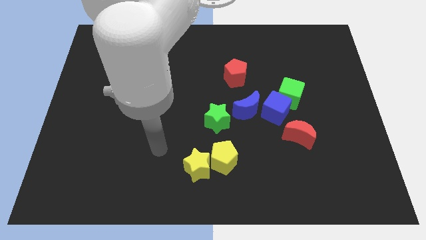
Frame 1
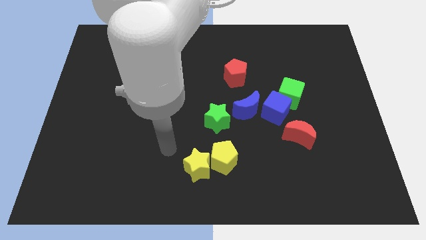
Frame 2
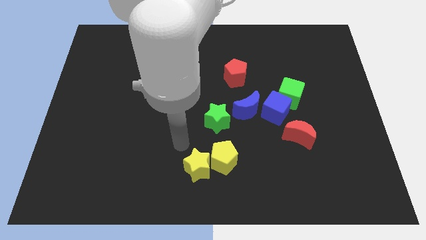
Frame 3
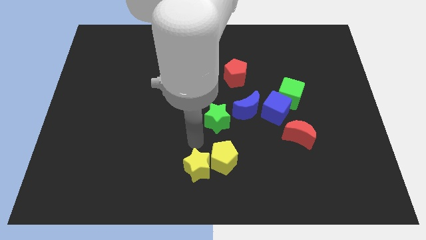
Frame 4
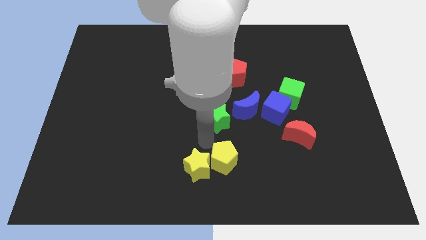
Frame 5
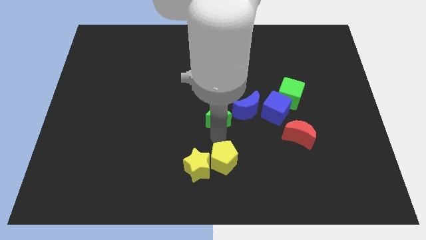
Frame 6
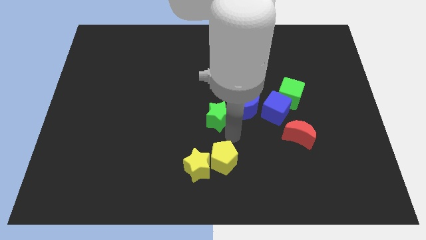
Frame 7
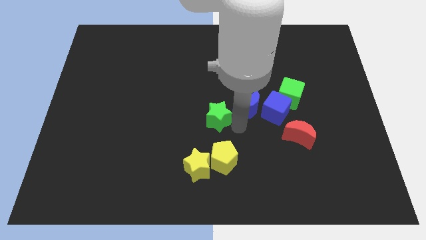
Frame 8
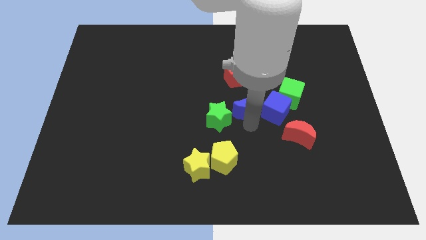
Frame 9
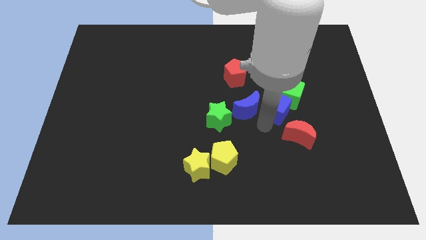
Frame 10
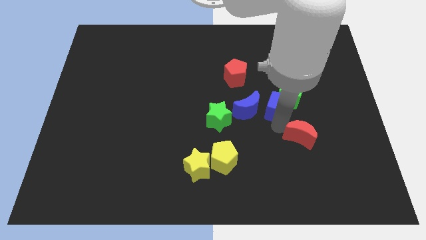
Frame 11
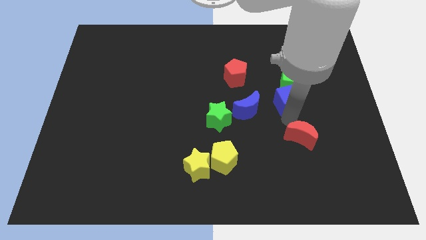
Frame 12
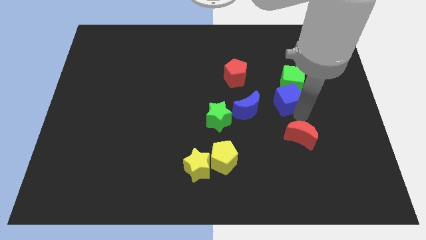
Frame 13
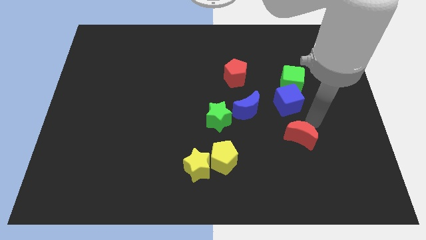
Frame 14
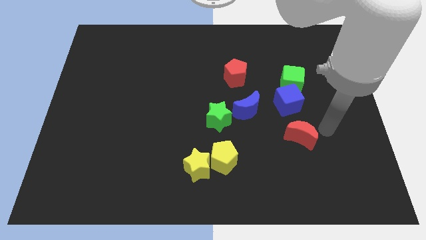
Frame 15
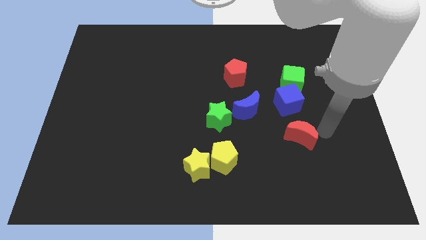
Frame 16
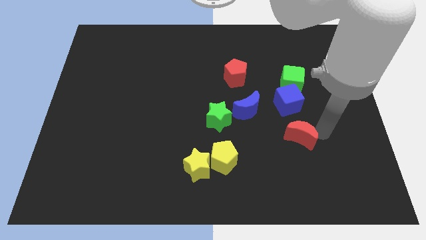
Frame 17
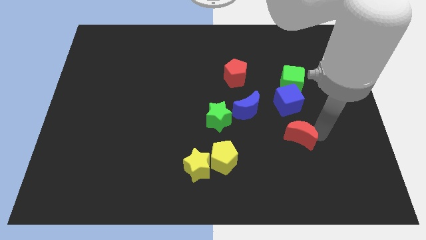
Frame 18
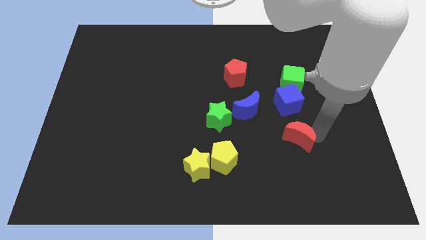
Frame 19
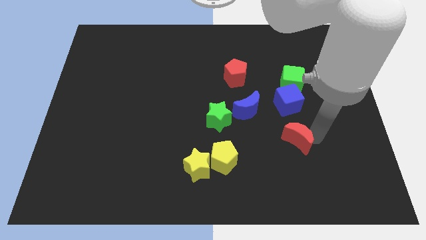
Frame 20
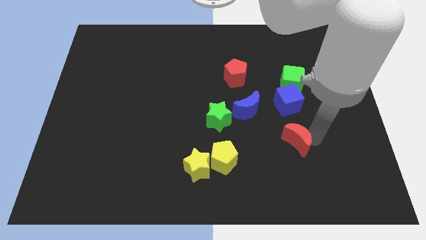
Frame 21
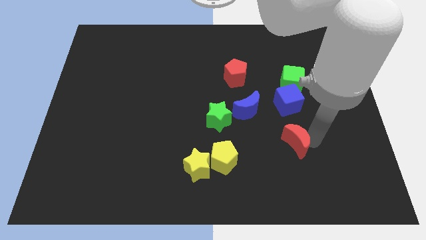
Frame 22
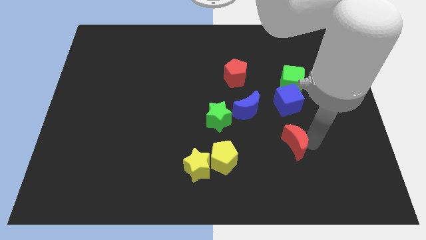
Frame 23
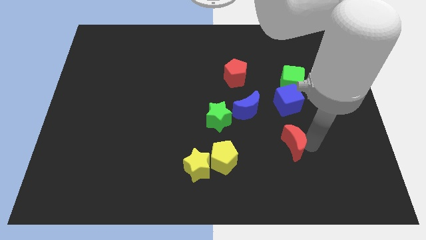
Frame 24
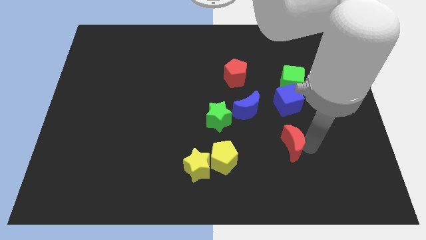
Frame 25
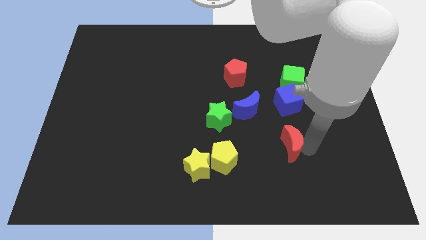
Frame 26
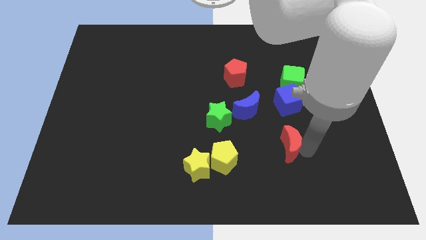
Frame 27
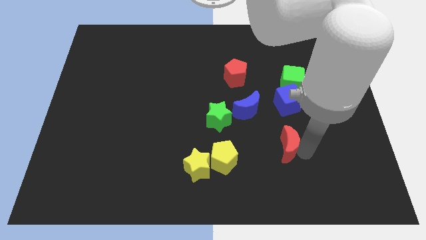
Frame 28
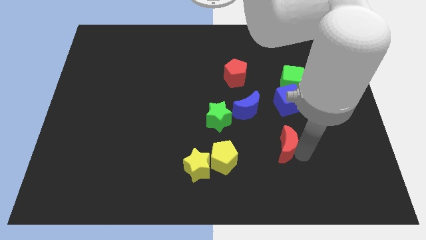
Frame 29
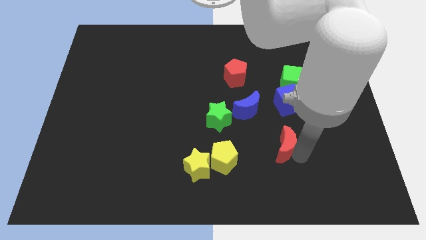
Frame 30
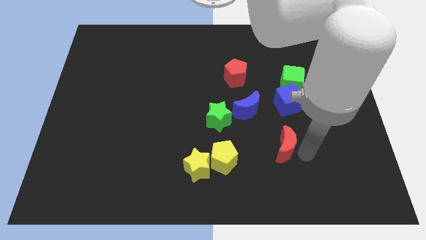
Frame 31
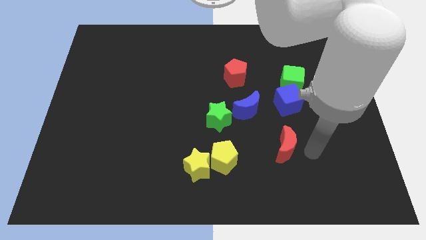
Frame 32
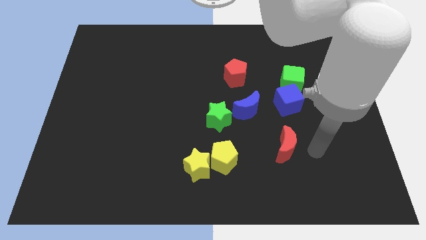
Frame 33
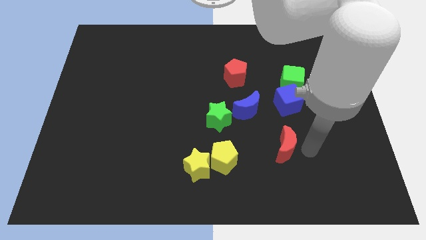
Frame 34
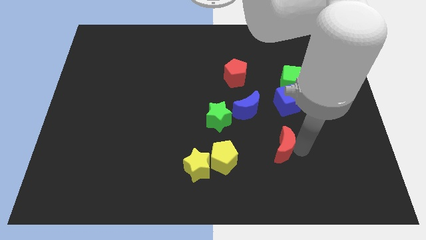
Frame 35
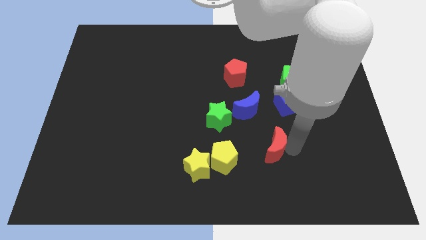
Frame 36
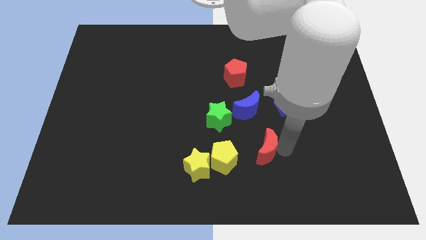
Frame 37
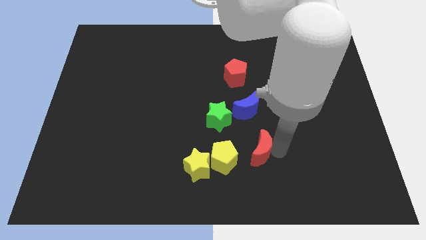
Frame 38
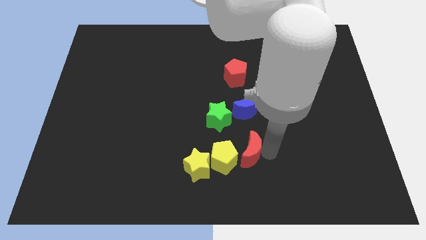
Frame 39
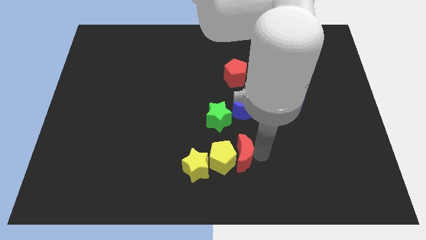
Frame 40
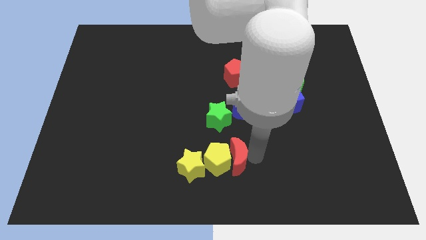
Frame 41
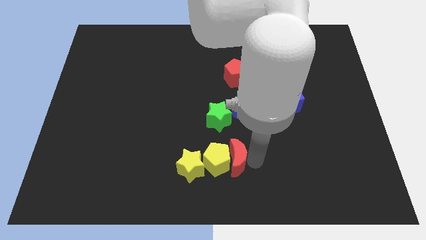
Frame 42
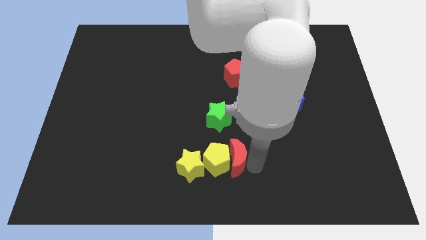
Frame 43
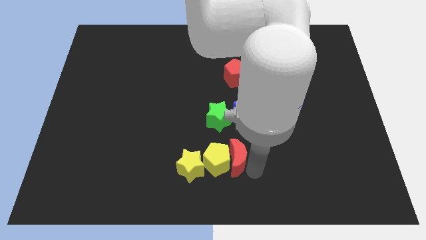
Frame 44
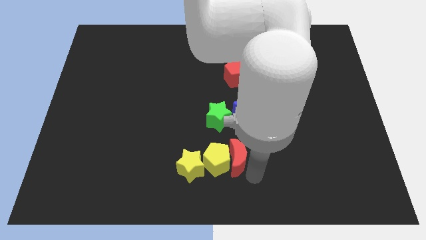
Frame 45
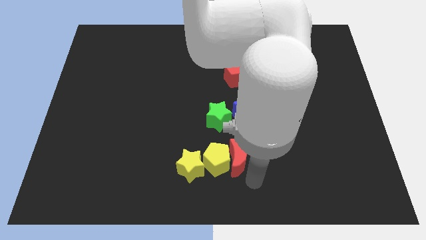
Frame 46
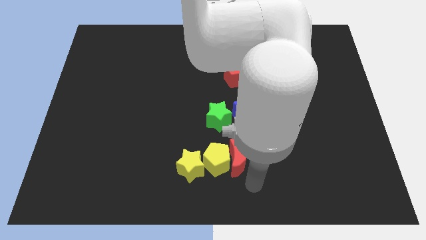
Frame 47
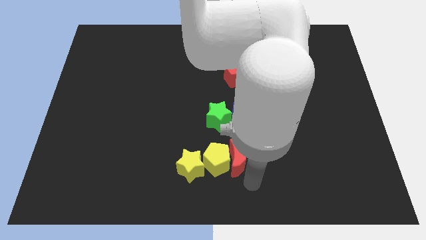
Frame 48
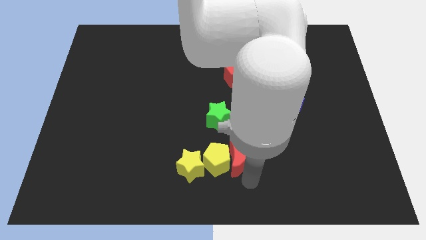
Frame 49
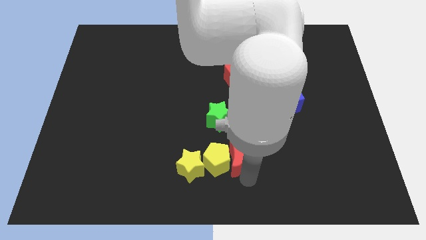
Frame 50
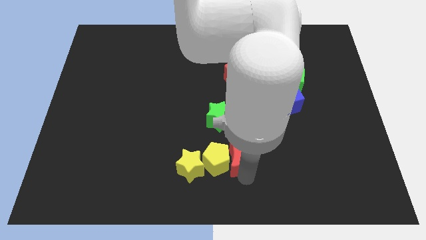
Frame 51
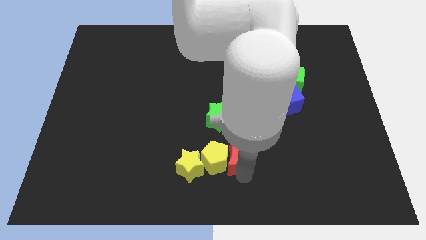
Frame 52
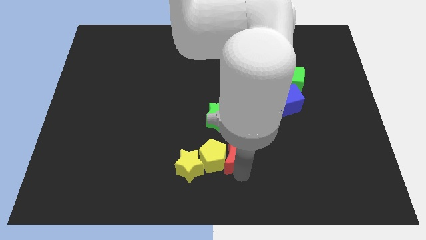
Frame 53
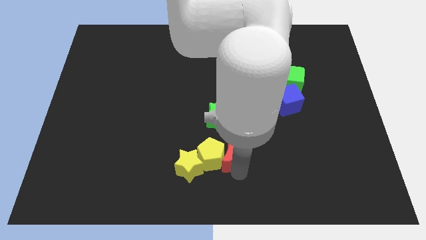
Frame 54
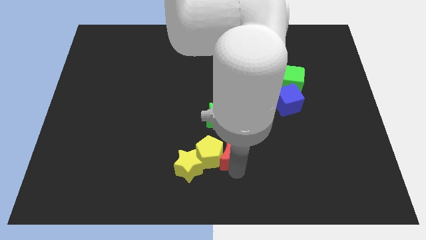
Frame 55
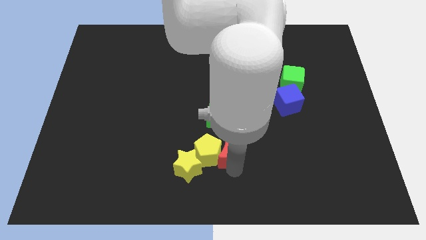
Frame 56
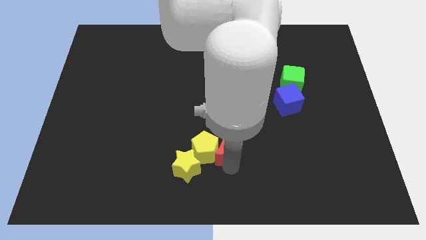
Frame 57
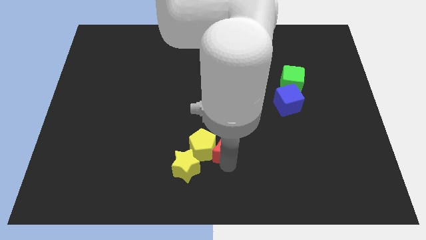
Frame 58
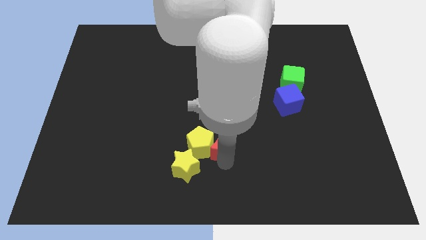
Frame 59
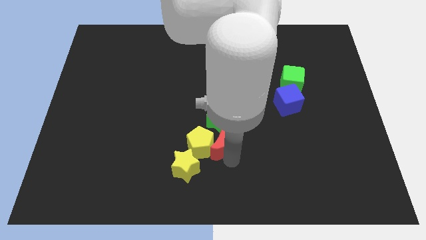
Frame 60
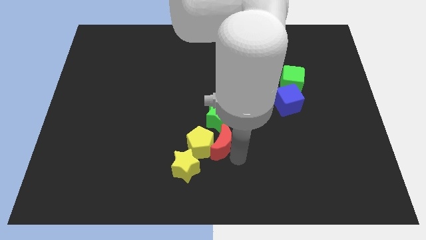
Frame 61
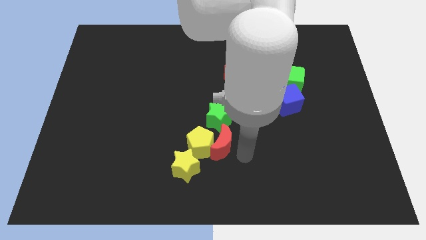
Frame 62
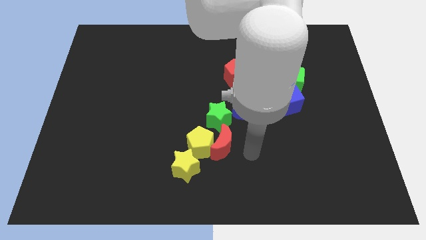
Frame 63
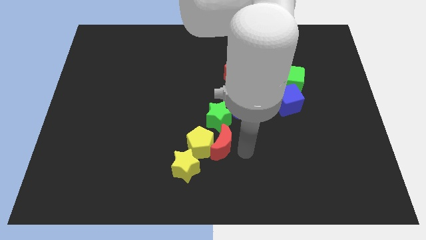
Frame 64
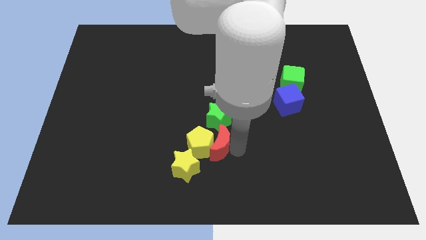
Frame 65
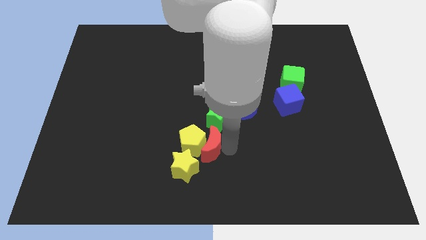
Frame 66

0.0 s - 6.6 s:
slide the red moon diagonally down and to the left of the green star
